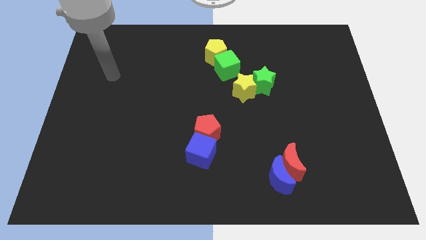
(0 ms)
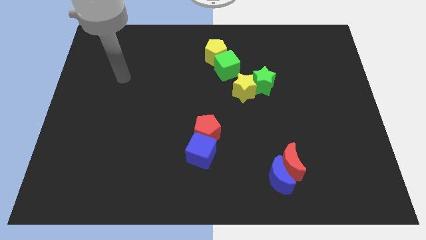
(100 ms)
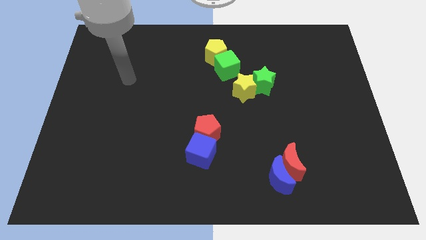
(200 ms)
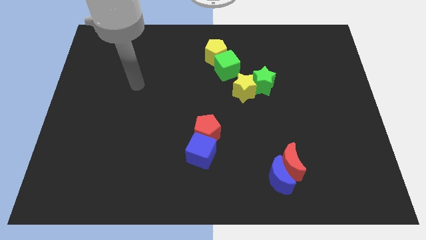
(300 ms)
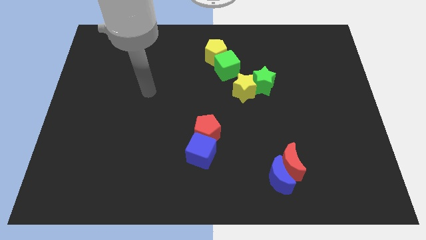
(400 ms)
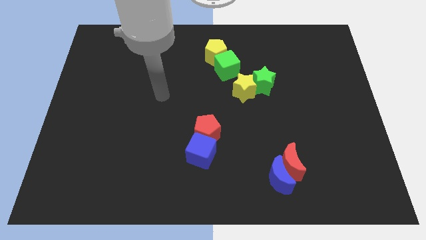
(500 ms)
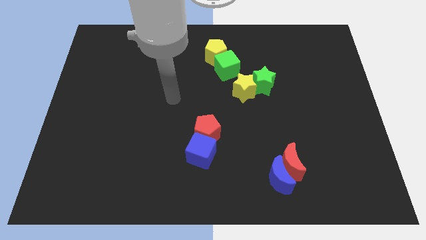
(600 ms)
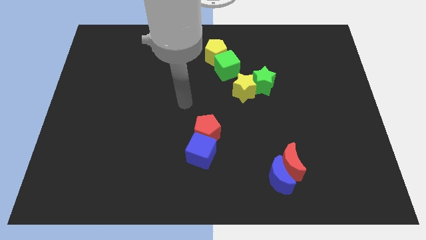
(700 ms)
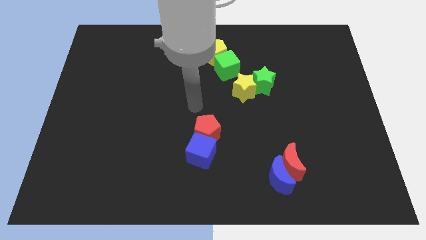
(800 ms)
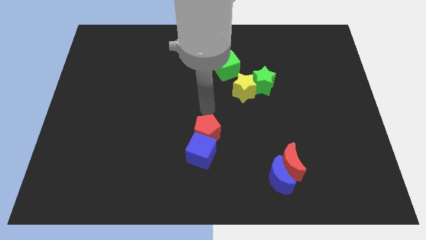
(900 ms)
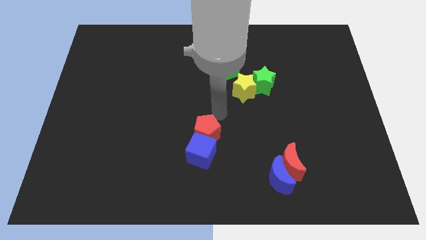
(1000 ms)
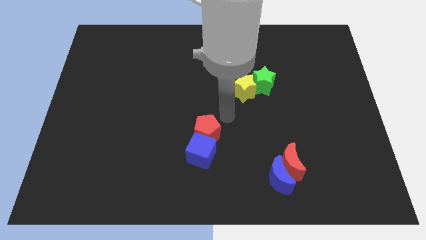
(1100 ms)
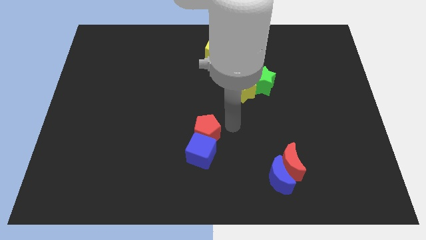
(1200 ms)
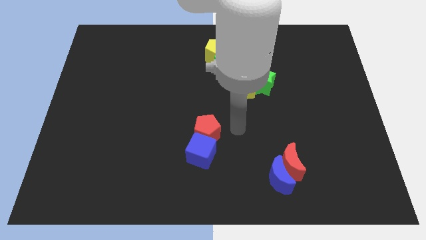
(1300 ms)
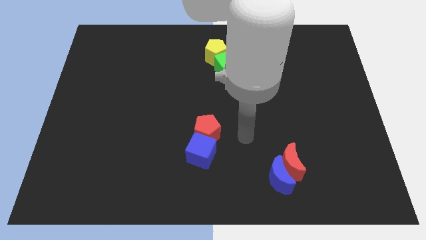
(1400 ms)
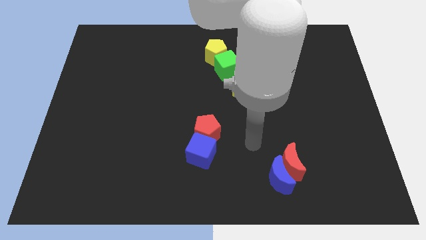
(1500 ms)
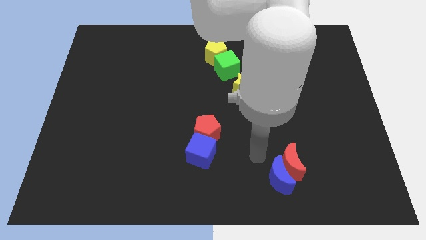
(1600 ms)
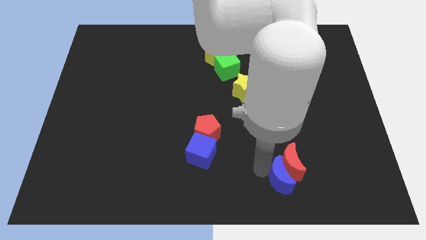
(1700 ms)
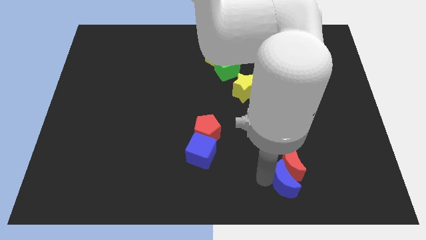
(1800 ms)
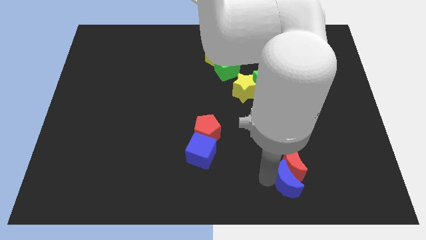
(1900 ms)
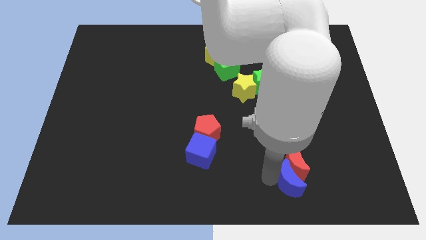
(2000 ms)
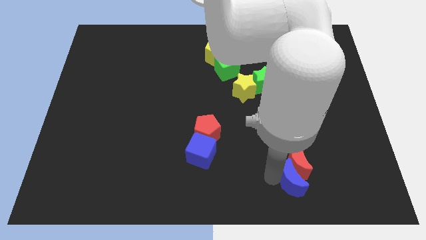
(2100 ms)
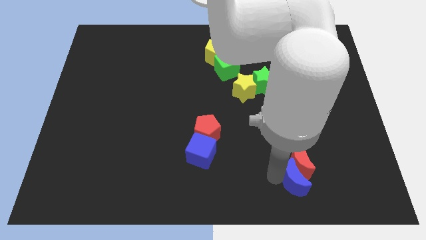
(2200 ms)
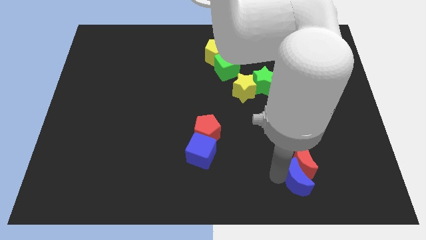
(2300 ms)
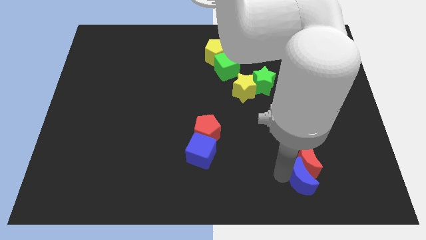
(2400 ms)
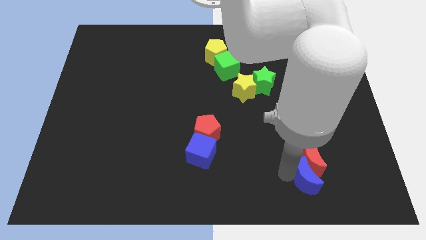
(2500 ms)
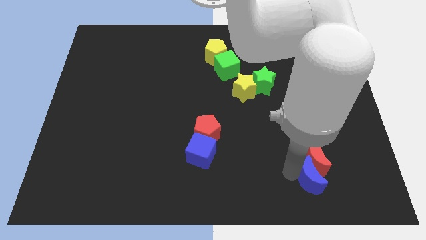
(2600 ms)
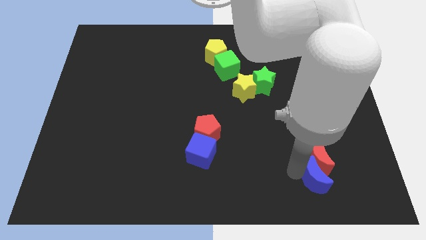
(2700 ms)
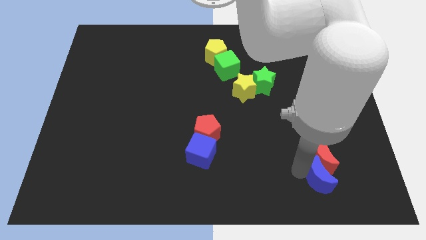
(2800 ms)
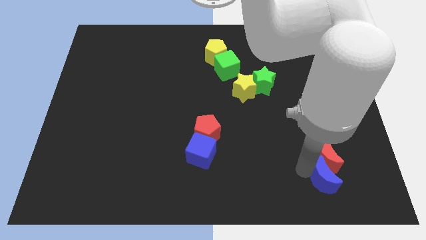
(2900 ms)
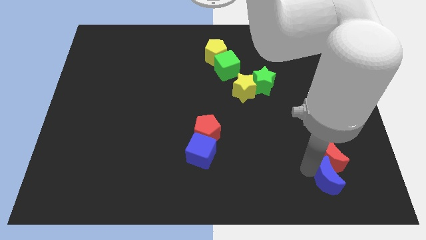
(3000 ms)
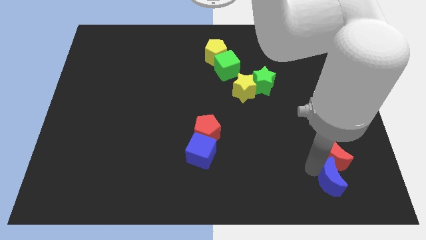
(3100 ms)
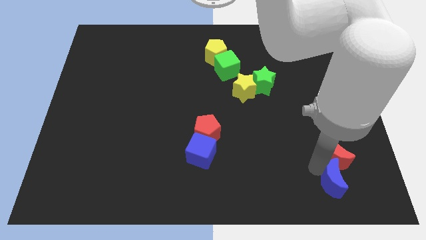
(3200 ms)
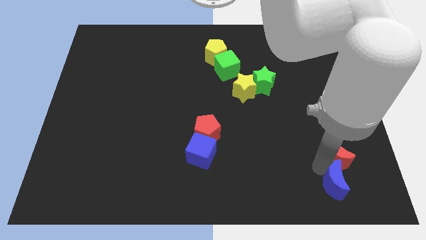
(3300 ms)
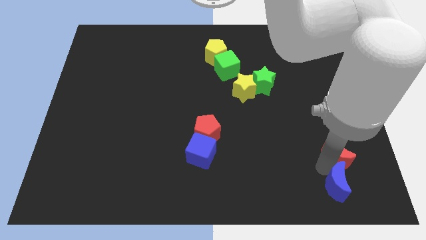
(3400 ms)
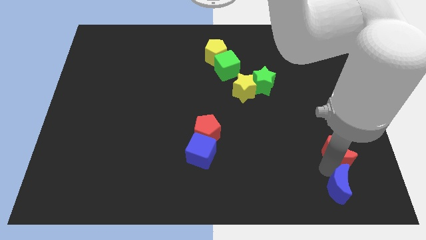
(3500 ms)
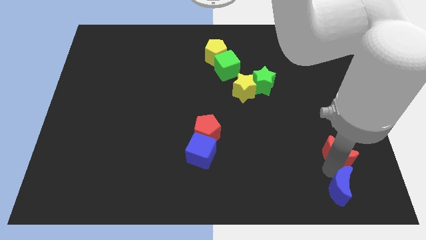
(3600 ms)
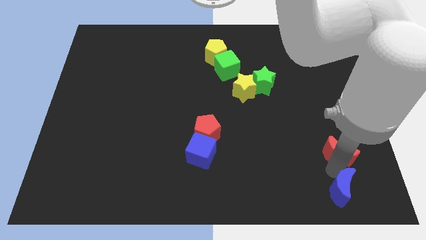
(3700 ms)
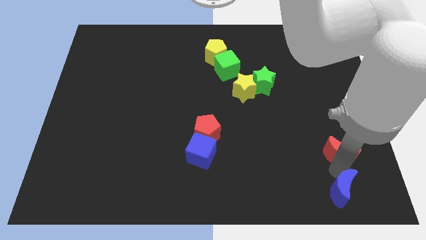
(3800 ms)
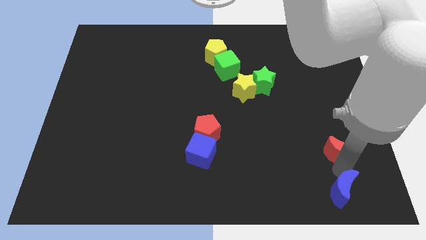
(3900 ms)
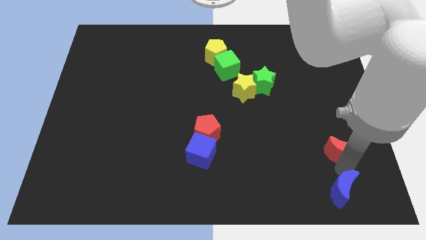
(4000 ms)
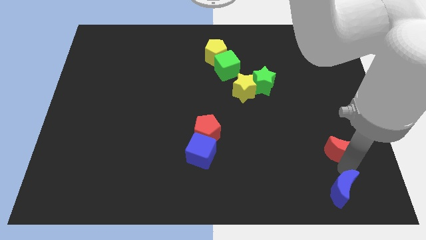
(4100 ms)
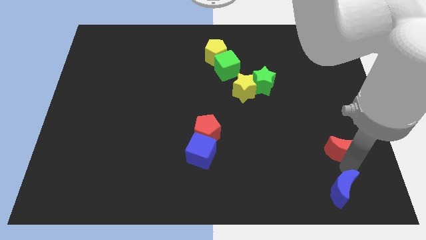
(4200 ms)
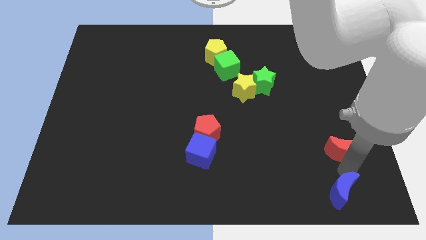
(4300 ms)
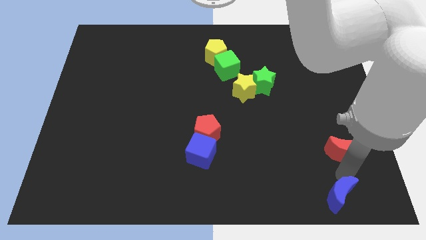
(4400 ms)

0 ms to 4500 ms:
pull the red moon apart from the blue moon

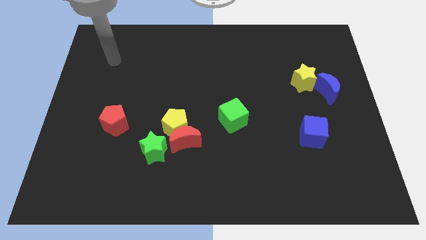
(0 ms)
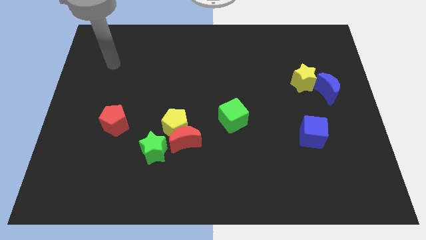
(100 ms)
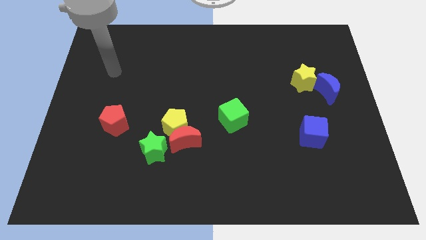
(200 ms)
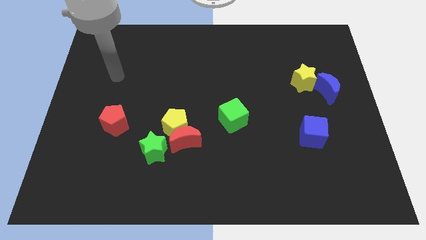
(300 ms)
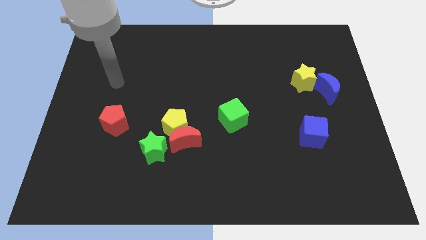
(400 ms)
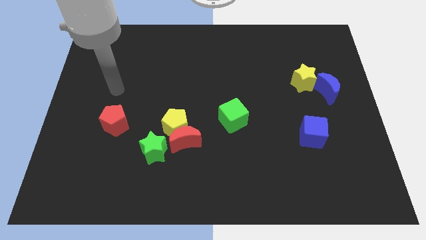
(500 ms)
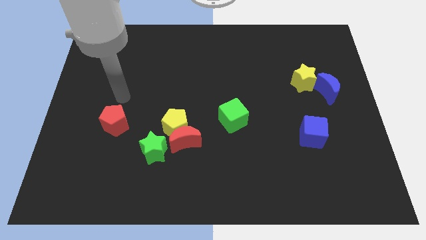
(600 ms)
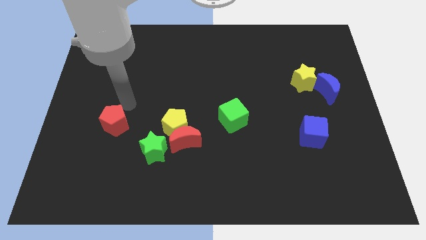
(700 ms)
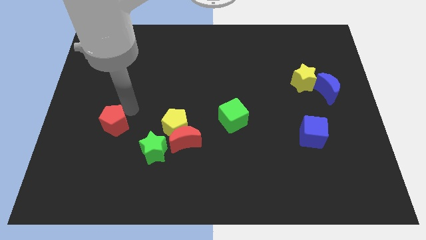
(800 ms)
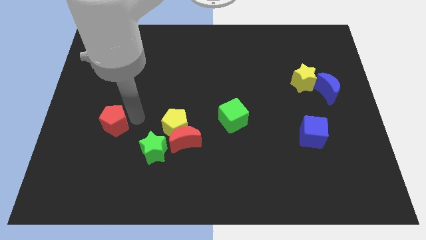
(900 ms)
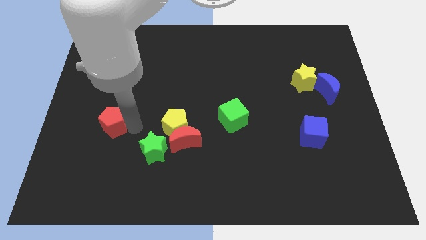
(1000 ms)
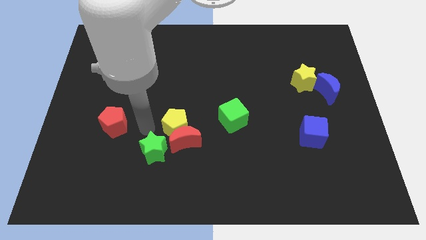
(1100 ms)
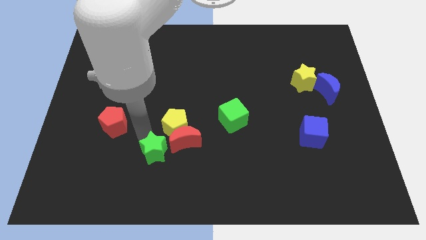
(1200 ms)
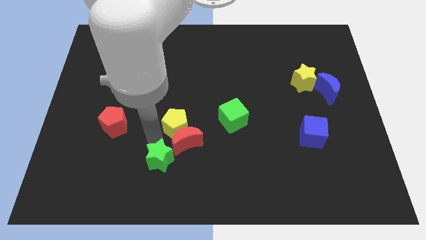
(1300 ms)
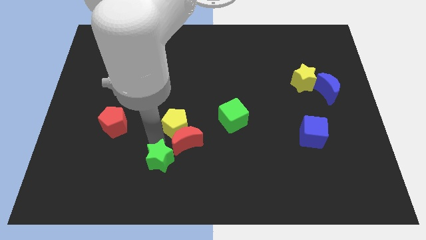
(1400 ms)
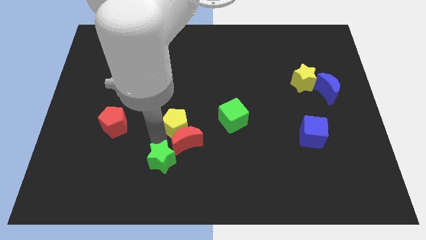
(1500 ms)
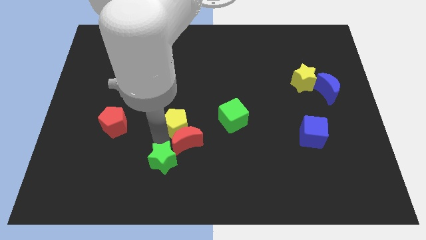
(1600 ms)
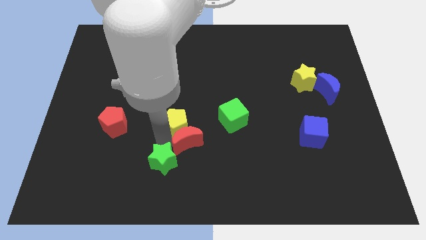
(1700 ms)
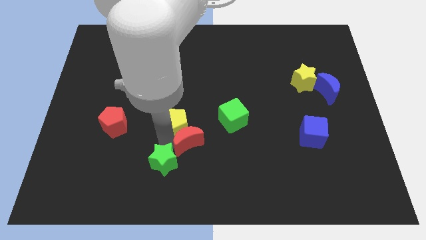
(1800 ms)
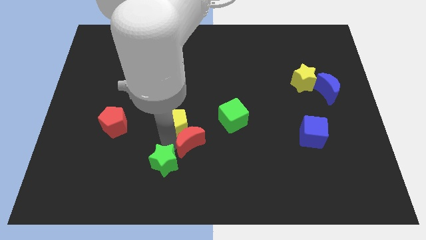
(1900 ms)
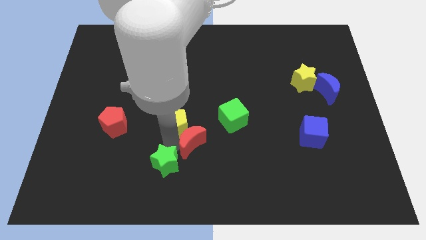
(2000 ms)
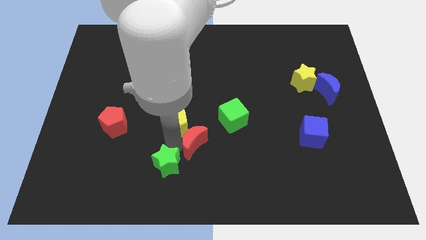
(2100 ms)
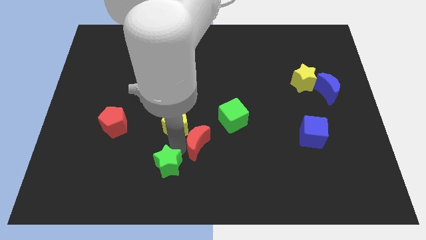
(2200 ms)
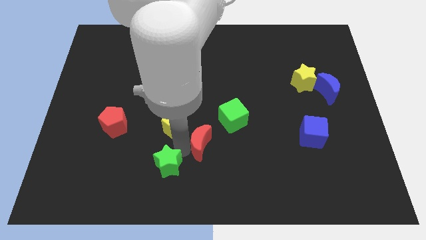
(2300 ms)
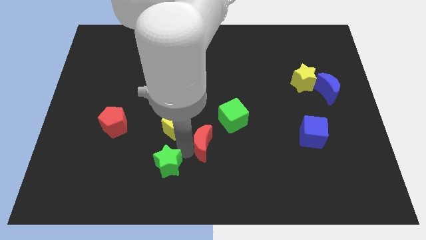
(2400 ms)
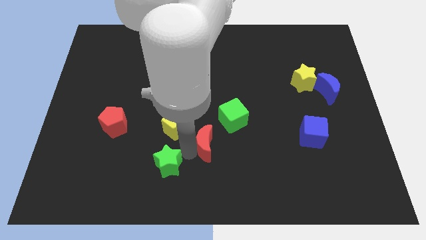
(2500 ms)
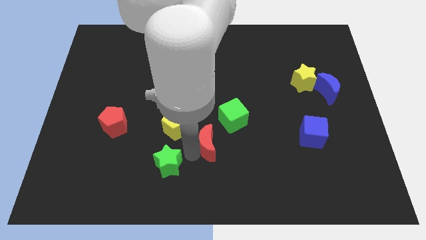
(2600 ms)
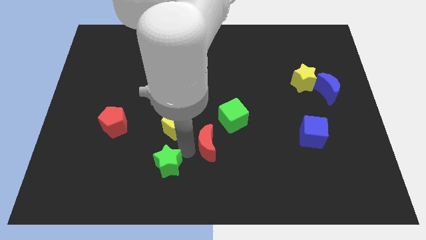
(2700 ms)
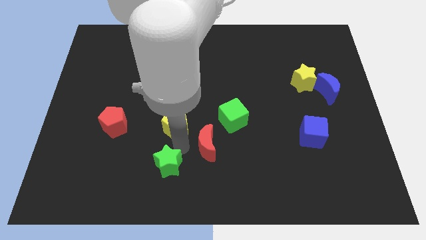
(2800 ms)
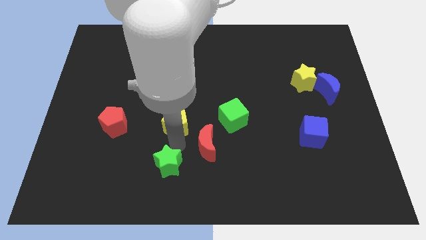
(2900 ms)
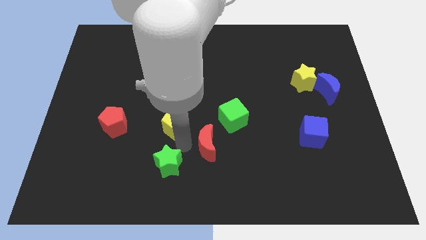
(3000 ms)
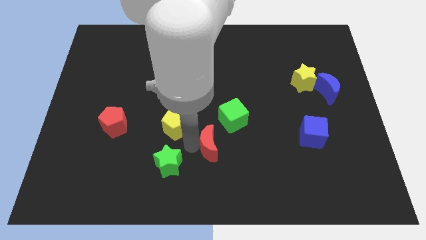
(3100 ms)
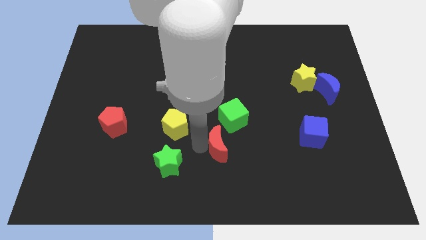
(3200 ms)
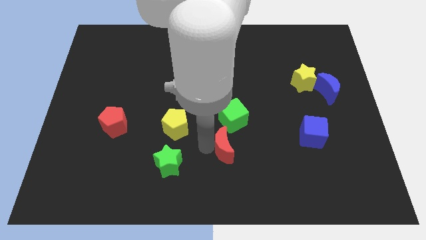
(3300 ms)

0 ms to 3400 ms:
move the red moon away from the yellow pentagon and green star

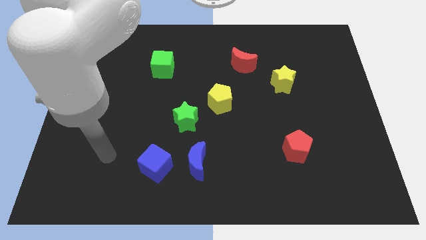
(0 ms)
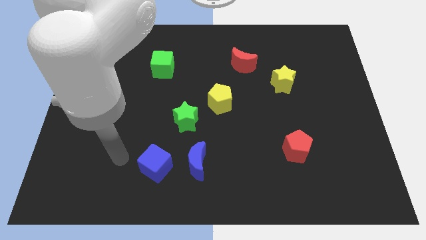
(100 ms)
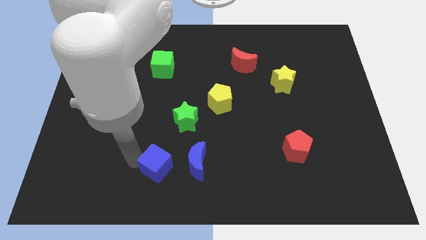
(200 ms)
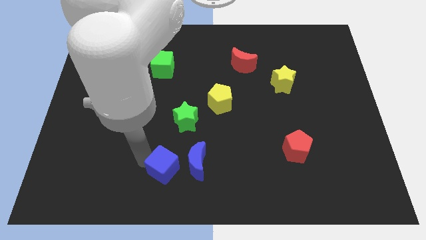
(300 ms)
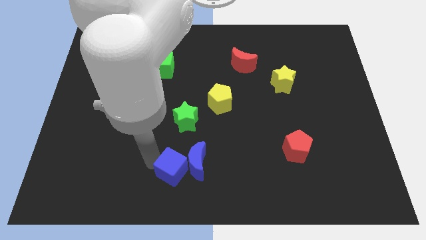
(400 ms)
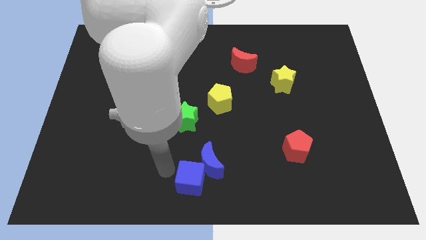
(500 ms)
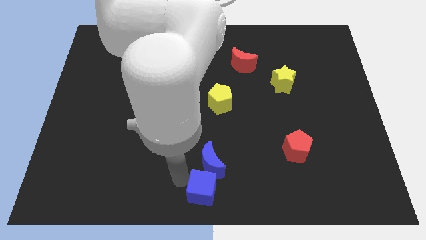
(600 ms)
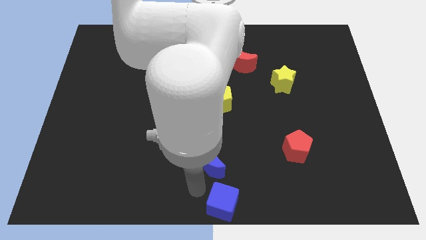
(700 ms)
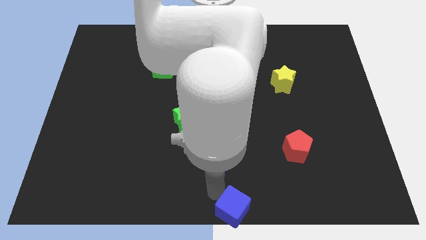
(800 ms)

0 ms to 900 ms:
separate the blue moon from the blue cube

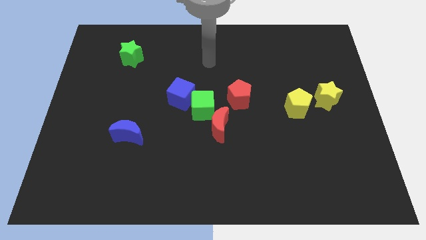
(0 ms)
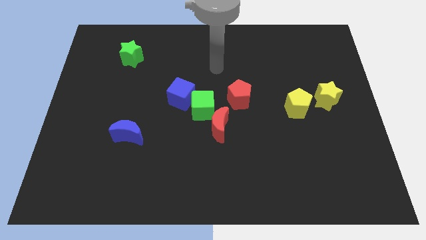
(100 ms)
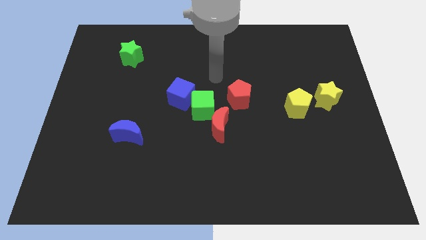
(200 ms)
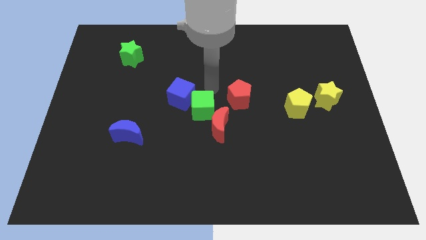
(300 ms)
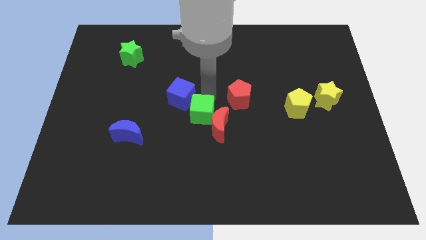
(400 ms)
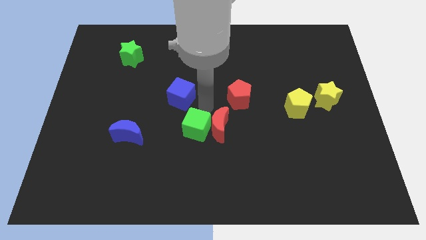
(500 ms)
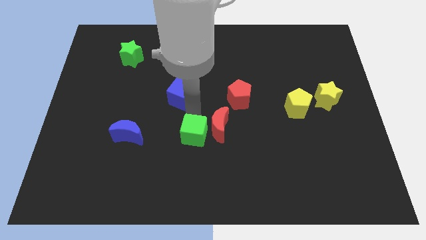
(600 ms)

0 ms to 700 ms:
move the blue cube away from the green cube
